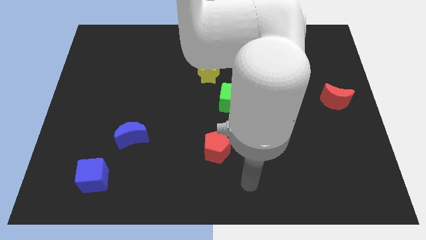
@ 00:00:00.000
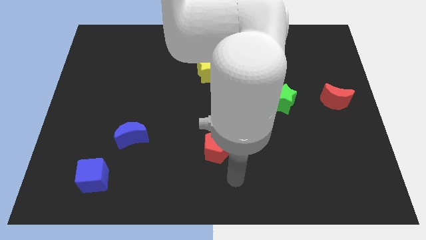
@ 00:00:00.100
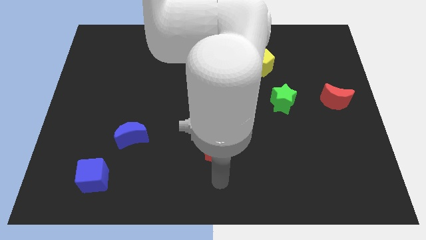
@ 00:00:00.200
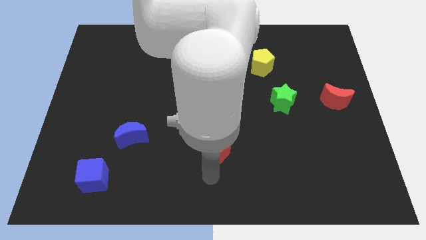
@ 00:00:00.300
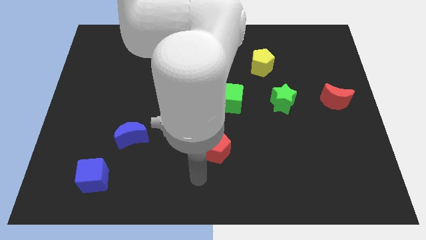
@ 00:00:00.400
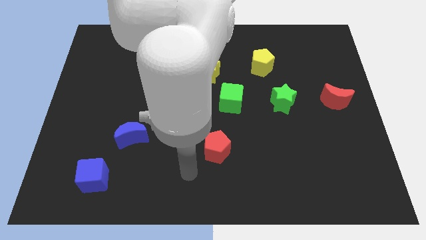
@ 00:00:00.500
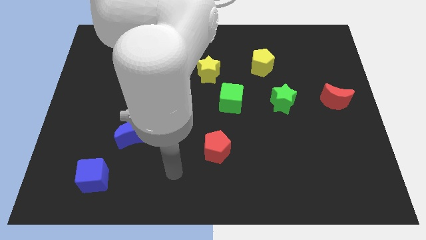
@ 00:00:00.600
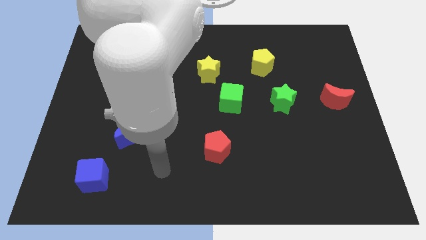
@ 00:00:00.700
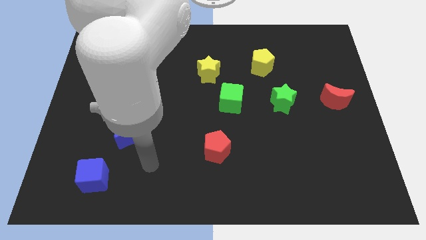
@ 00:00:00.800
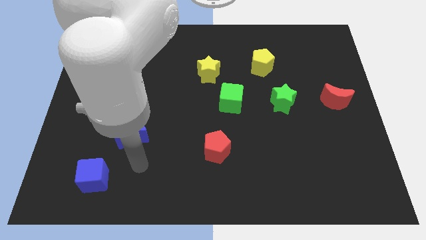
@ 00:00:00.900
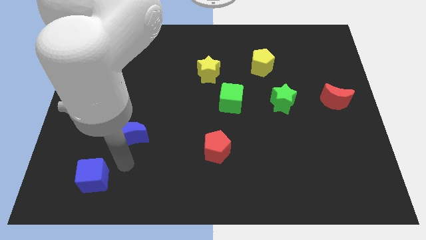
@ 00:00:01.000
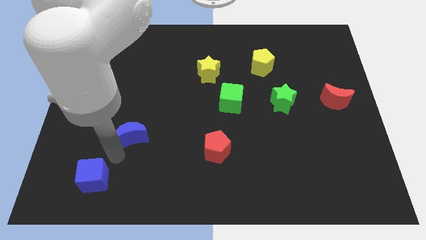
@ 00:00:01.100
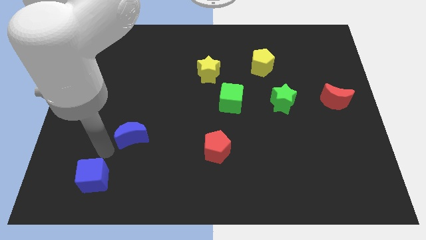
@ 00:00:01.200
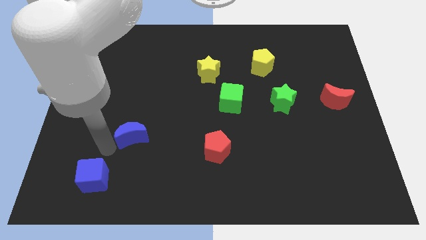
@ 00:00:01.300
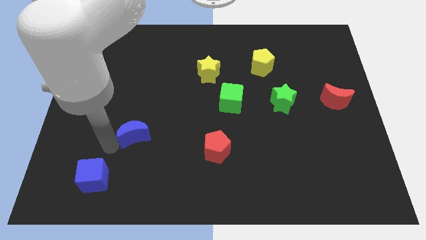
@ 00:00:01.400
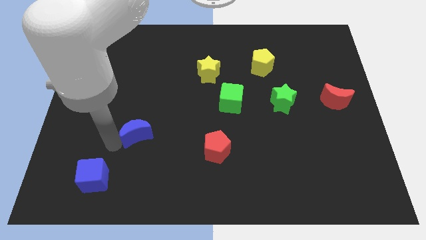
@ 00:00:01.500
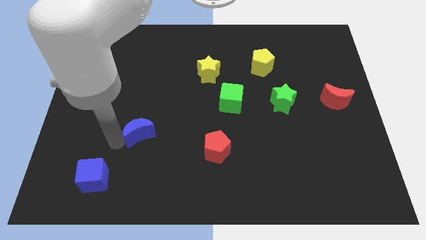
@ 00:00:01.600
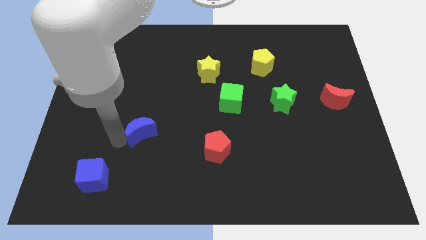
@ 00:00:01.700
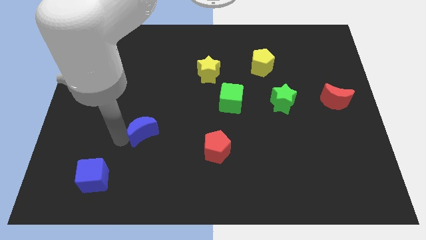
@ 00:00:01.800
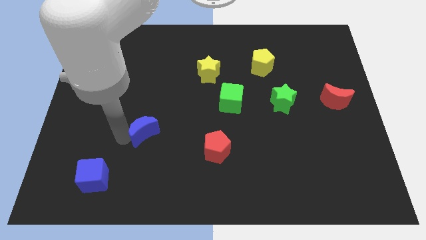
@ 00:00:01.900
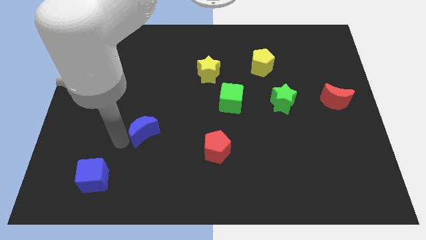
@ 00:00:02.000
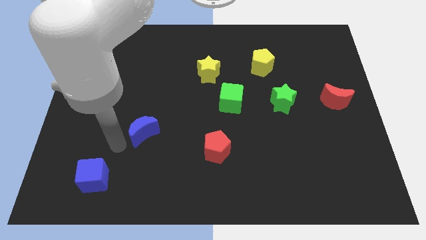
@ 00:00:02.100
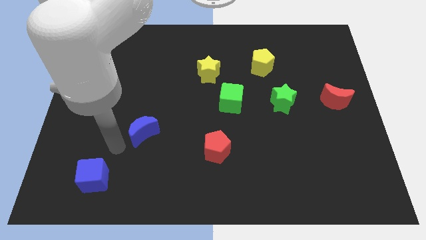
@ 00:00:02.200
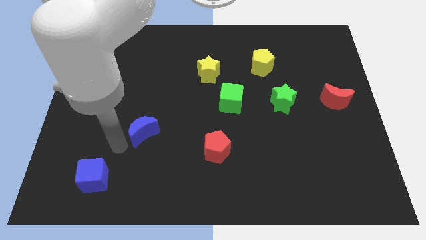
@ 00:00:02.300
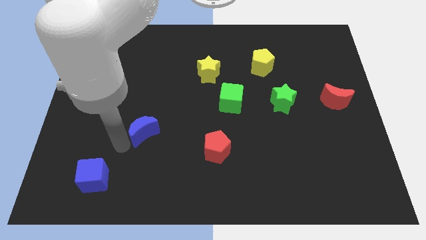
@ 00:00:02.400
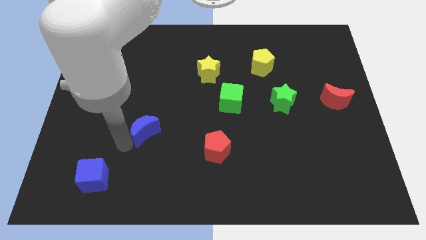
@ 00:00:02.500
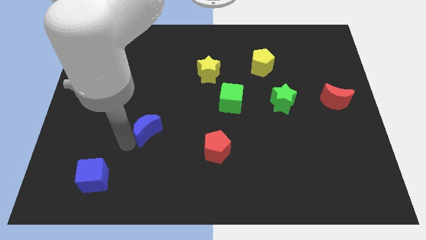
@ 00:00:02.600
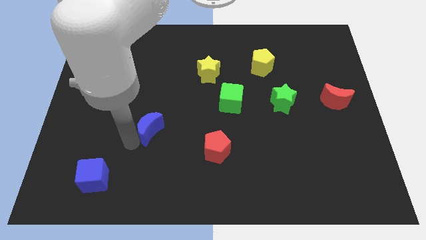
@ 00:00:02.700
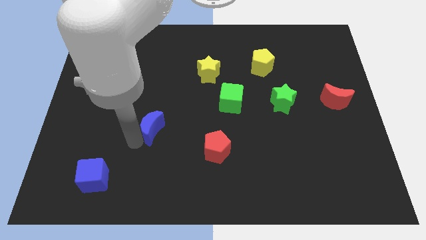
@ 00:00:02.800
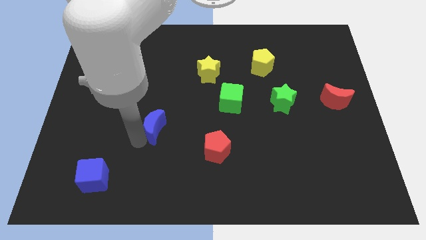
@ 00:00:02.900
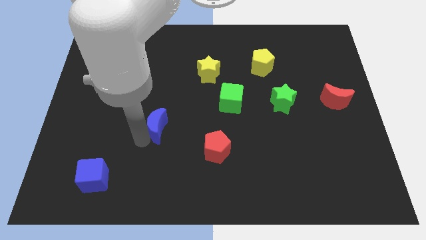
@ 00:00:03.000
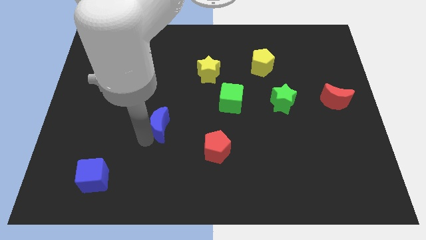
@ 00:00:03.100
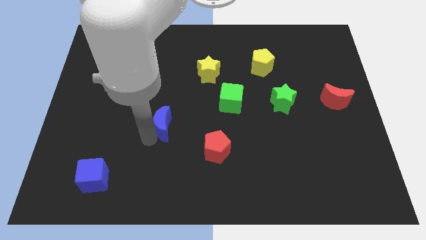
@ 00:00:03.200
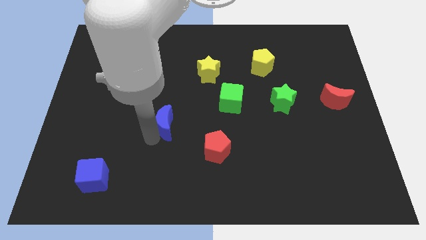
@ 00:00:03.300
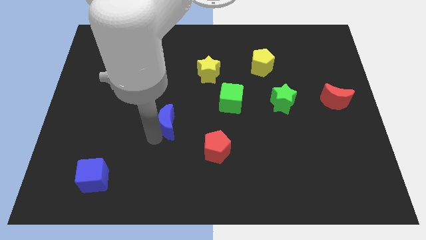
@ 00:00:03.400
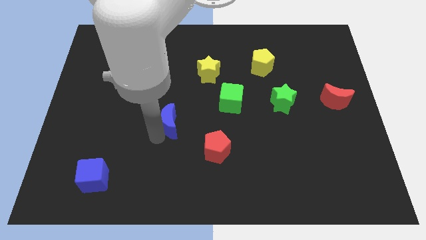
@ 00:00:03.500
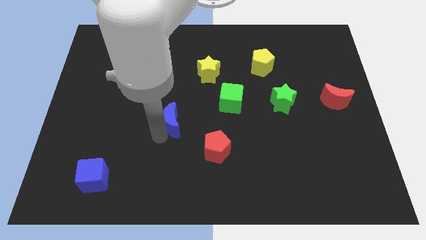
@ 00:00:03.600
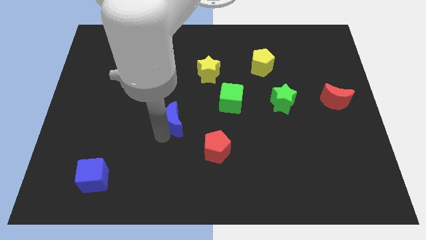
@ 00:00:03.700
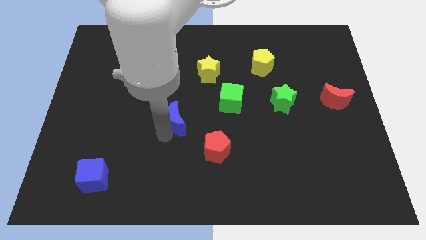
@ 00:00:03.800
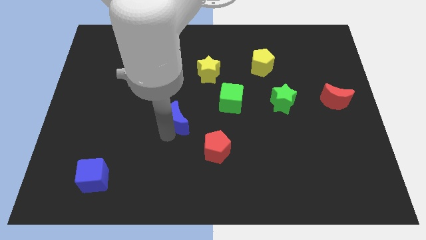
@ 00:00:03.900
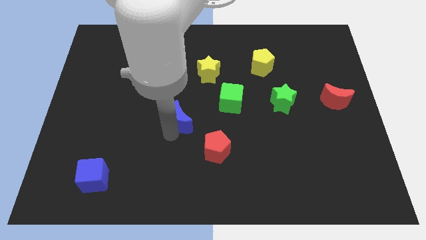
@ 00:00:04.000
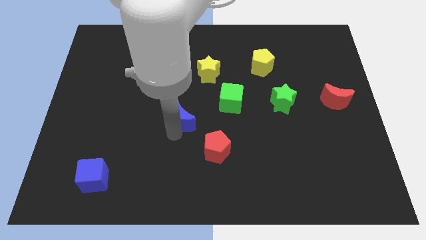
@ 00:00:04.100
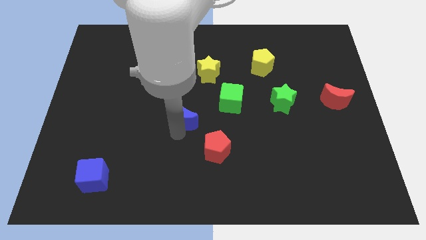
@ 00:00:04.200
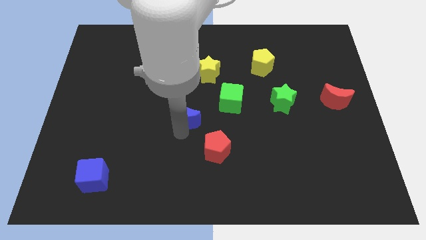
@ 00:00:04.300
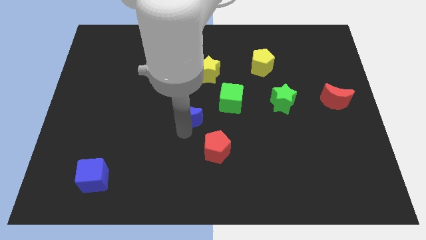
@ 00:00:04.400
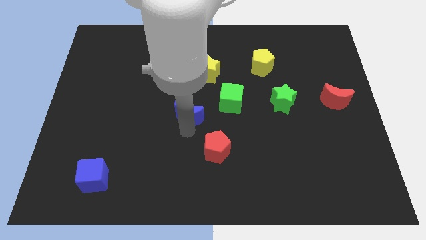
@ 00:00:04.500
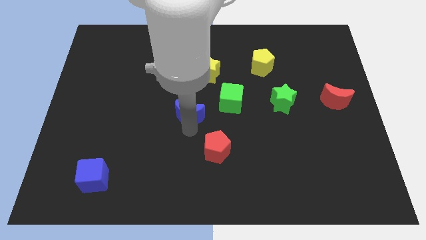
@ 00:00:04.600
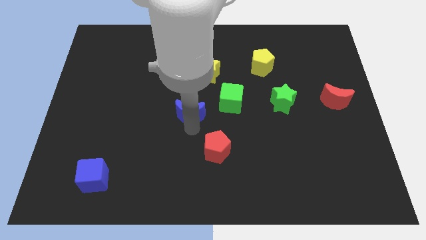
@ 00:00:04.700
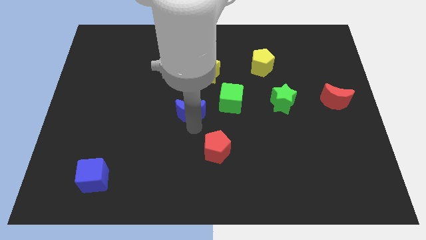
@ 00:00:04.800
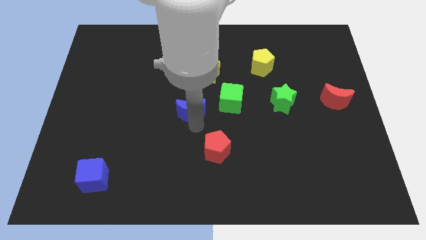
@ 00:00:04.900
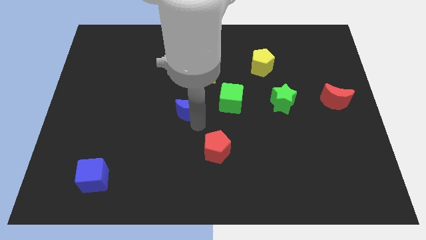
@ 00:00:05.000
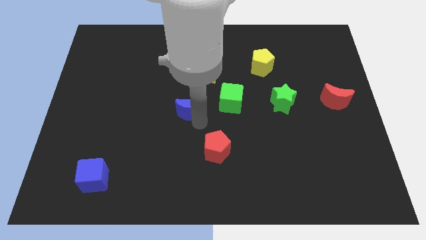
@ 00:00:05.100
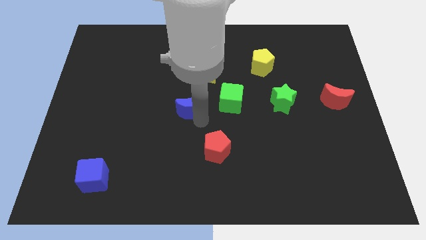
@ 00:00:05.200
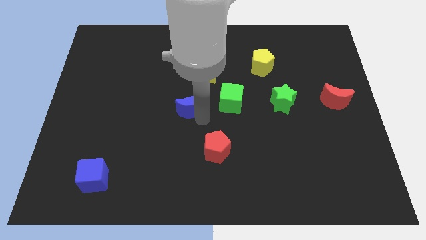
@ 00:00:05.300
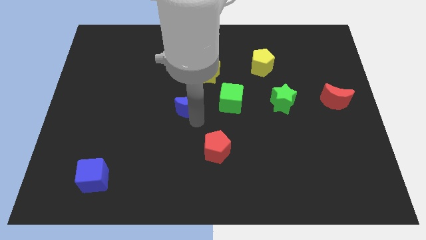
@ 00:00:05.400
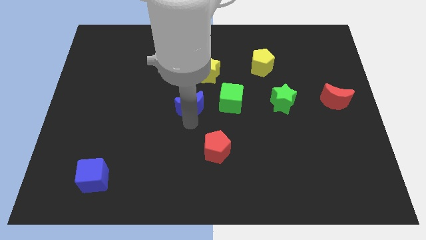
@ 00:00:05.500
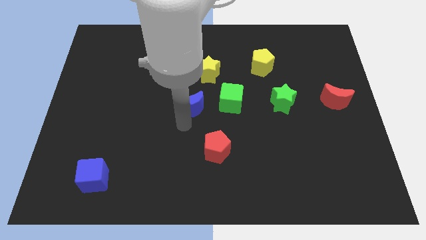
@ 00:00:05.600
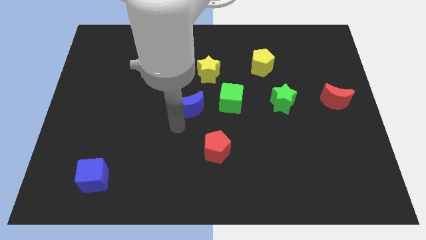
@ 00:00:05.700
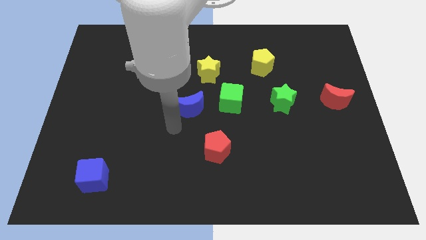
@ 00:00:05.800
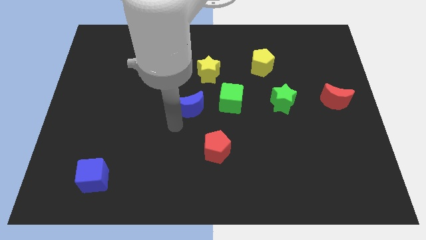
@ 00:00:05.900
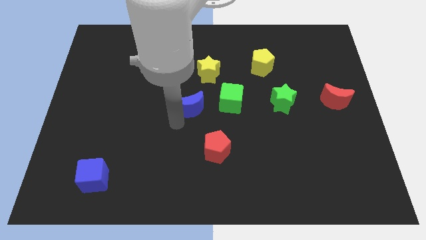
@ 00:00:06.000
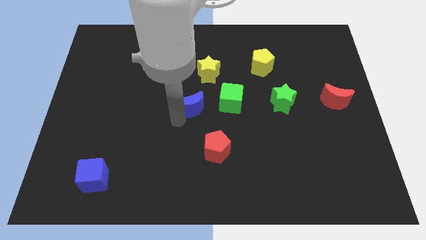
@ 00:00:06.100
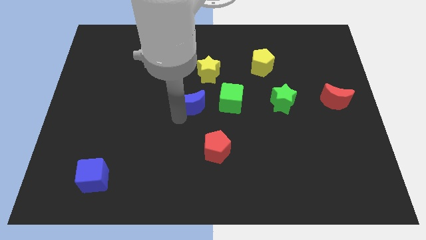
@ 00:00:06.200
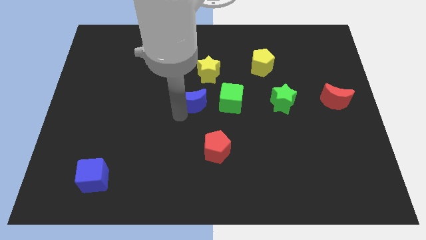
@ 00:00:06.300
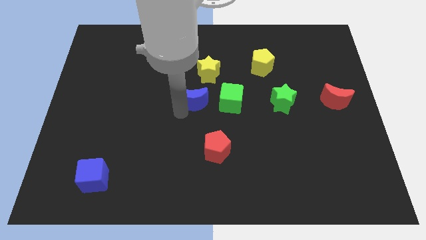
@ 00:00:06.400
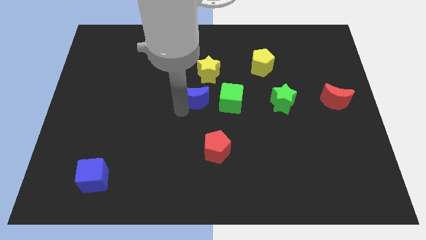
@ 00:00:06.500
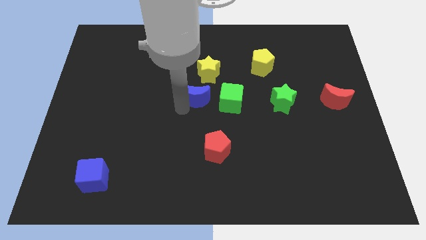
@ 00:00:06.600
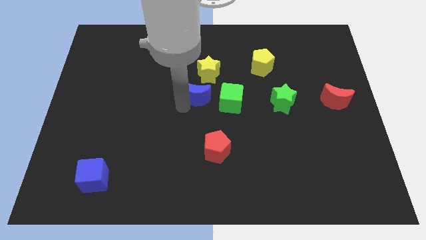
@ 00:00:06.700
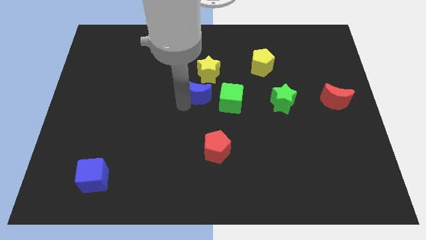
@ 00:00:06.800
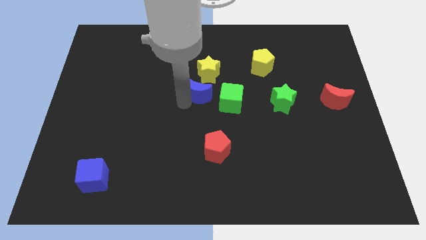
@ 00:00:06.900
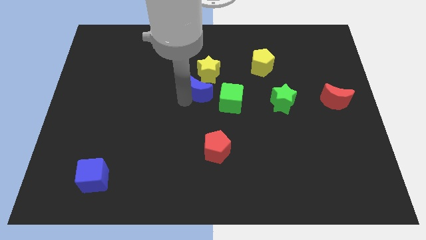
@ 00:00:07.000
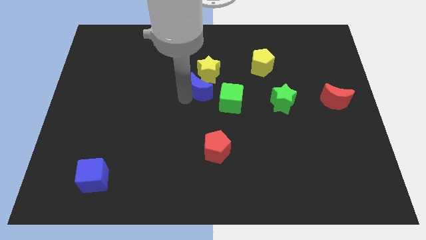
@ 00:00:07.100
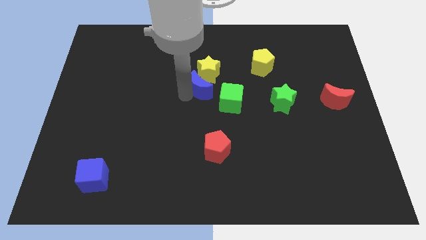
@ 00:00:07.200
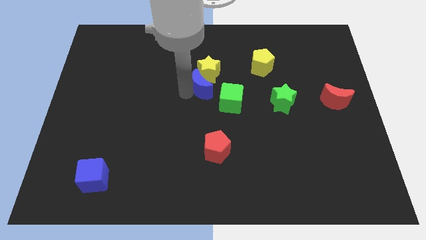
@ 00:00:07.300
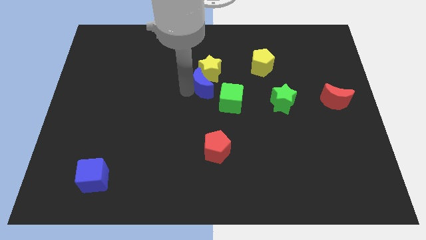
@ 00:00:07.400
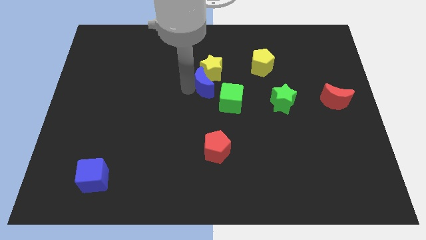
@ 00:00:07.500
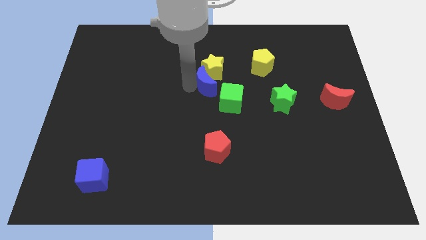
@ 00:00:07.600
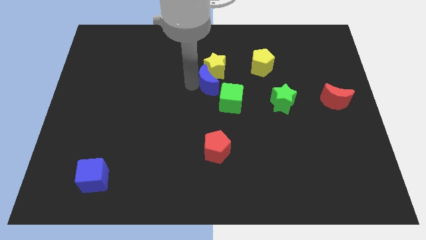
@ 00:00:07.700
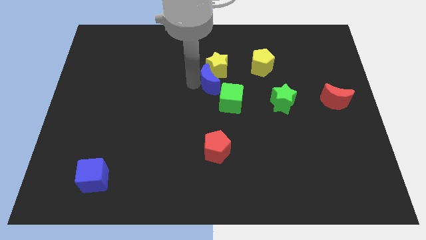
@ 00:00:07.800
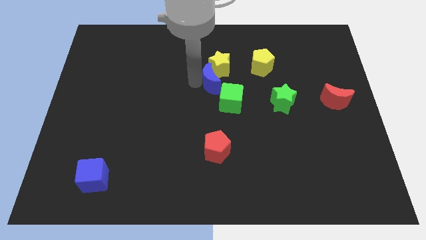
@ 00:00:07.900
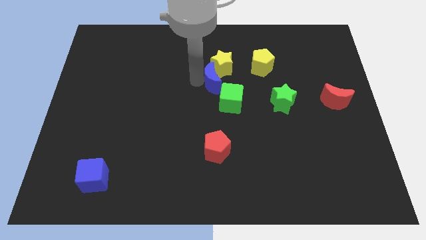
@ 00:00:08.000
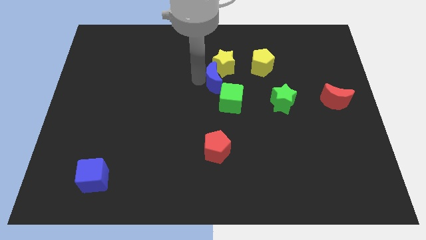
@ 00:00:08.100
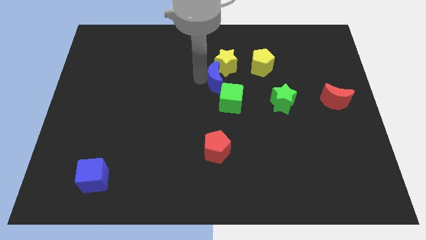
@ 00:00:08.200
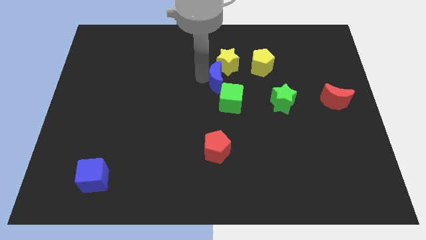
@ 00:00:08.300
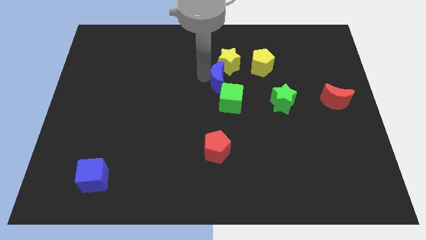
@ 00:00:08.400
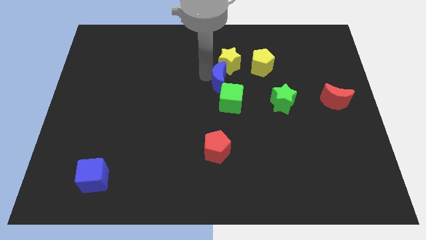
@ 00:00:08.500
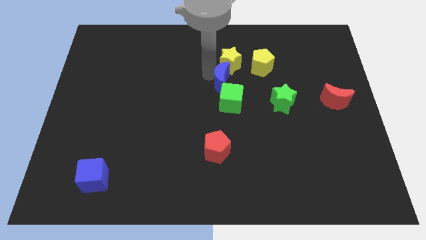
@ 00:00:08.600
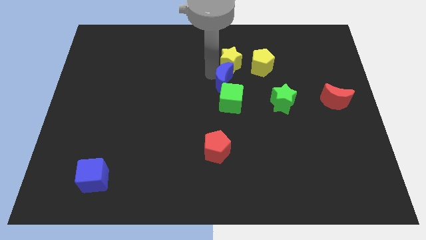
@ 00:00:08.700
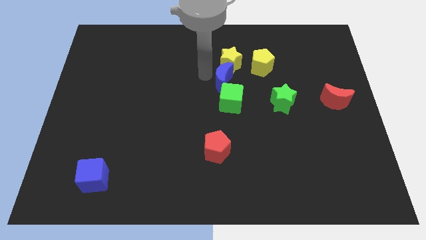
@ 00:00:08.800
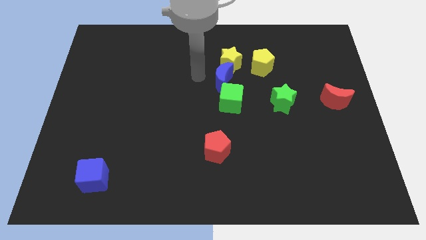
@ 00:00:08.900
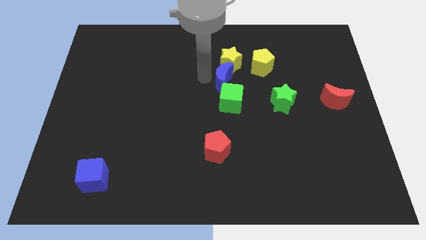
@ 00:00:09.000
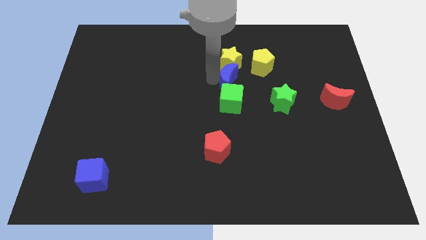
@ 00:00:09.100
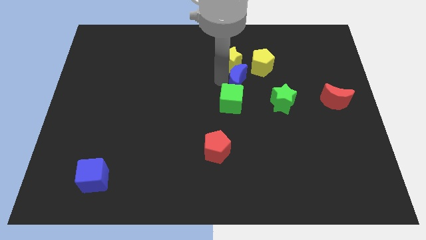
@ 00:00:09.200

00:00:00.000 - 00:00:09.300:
push the blue moon to the top left side of the green star
